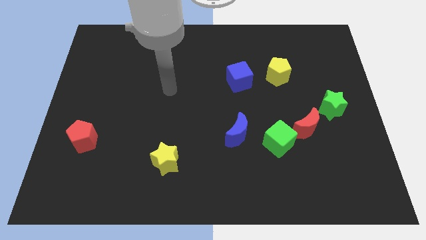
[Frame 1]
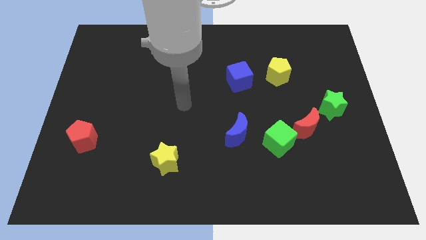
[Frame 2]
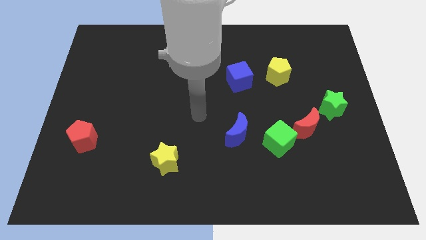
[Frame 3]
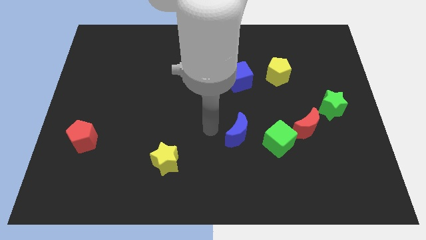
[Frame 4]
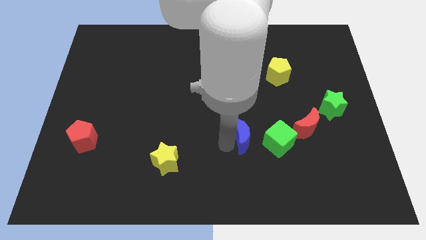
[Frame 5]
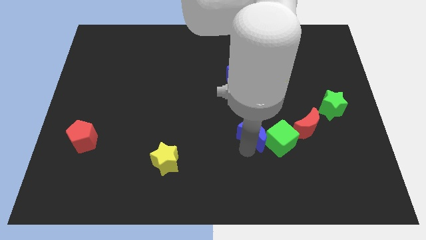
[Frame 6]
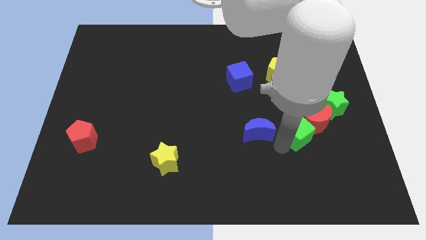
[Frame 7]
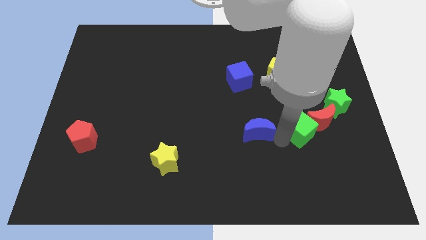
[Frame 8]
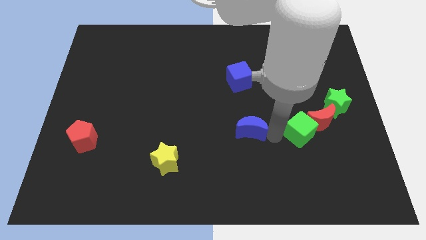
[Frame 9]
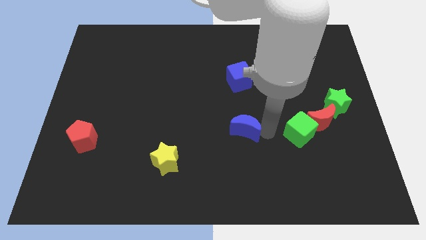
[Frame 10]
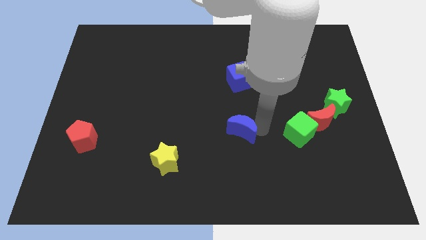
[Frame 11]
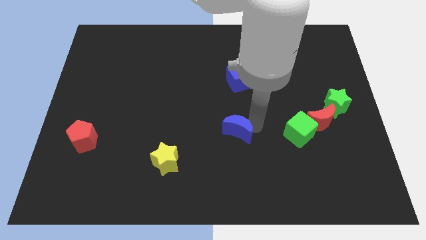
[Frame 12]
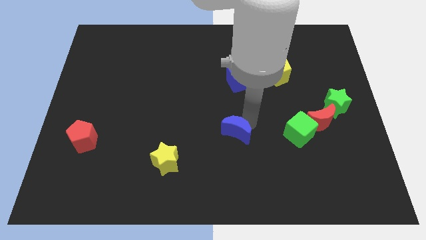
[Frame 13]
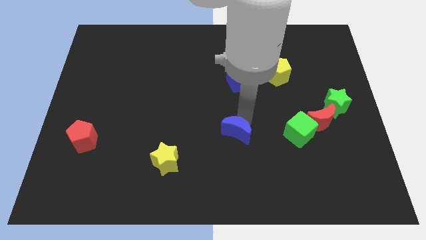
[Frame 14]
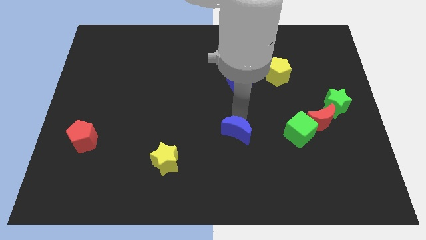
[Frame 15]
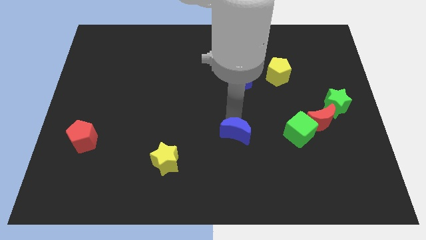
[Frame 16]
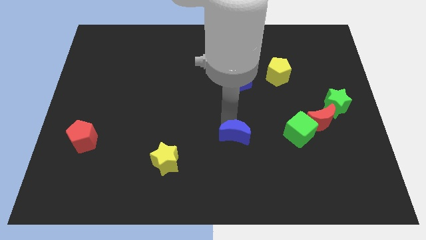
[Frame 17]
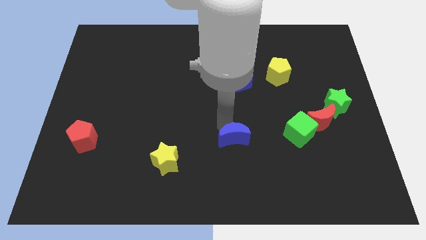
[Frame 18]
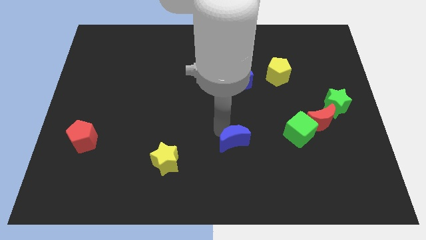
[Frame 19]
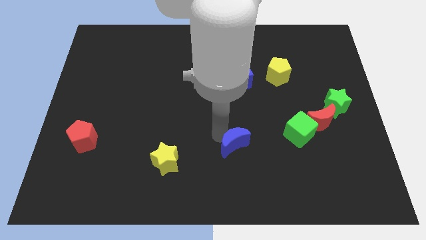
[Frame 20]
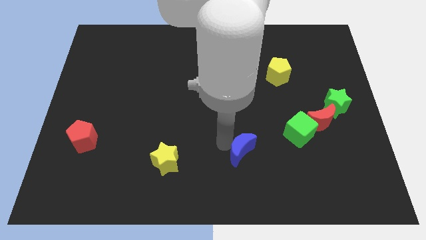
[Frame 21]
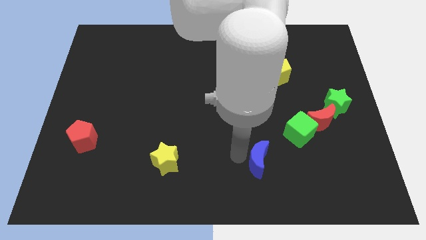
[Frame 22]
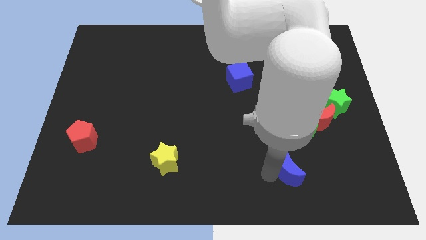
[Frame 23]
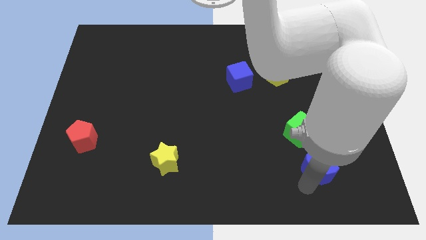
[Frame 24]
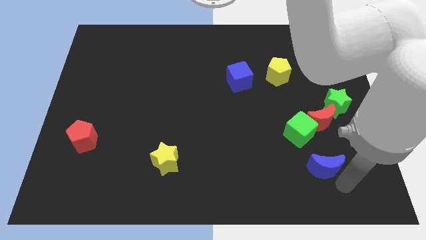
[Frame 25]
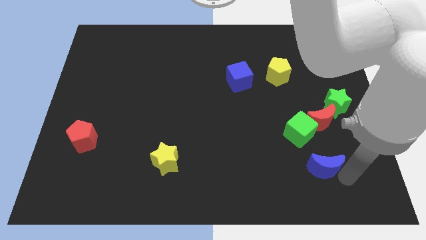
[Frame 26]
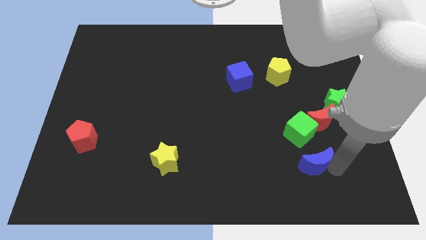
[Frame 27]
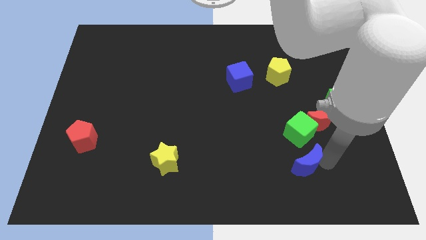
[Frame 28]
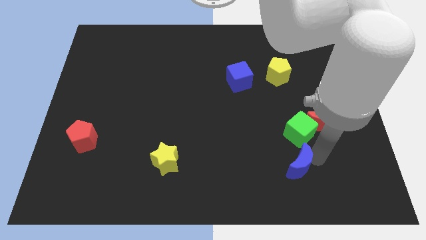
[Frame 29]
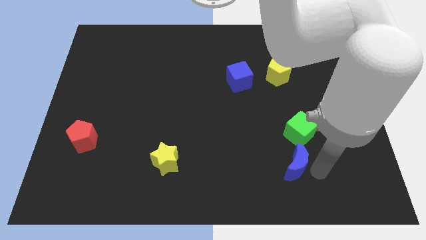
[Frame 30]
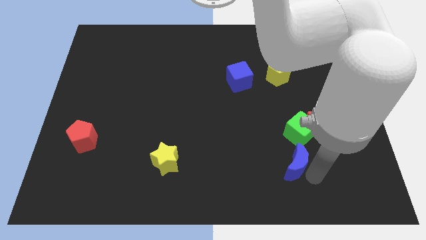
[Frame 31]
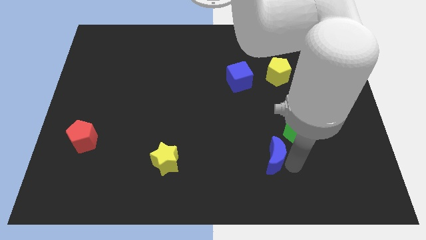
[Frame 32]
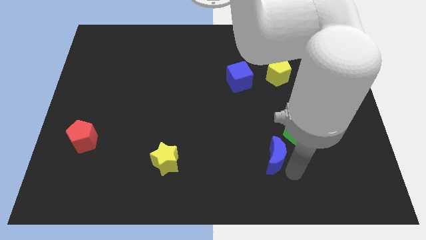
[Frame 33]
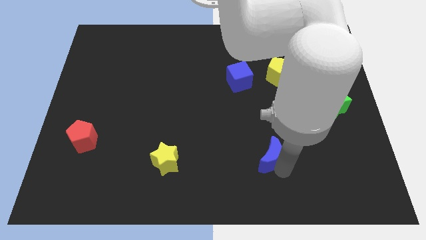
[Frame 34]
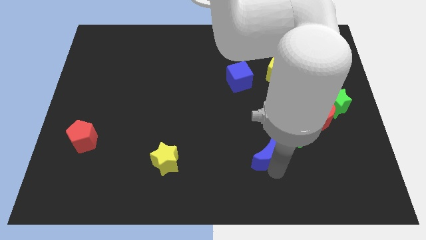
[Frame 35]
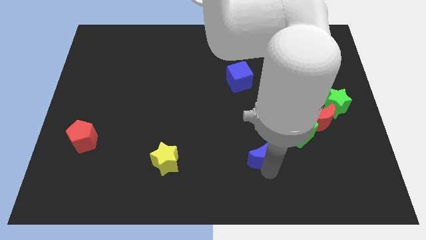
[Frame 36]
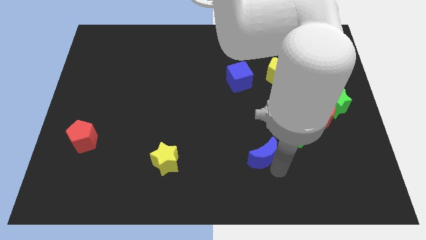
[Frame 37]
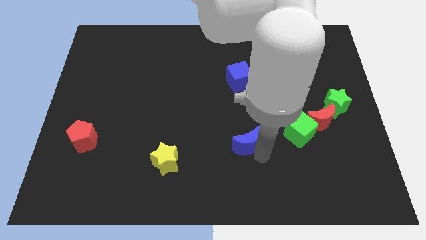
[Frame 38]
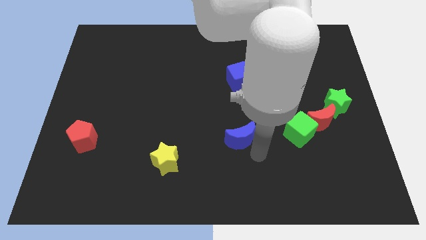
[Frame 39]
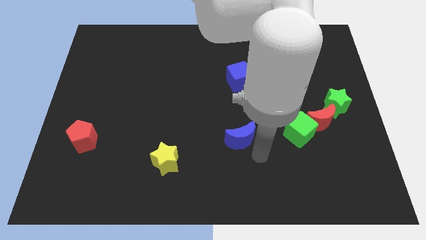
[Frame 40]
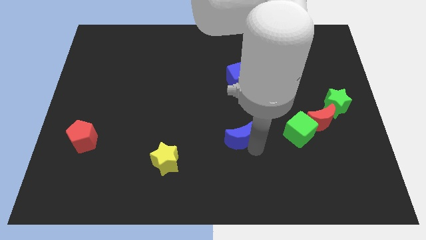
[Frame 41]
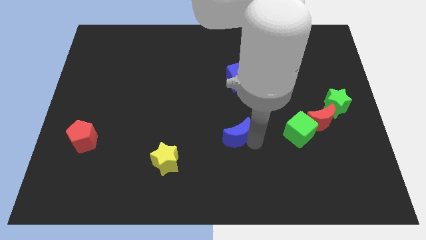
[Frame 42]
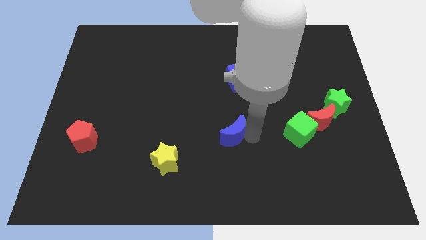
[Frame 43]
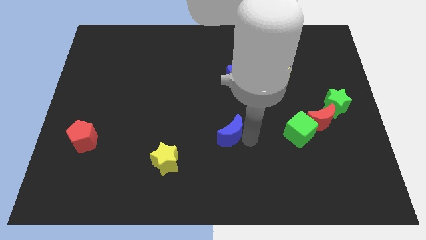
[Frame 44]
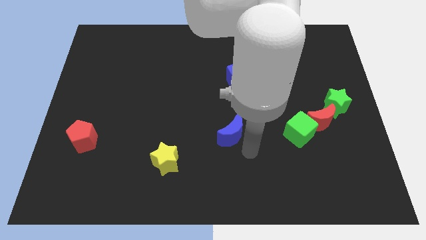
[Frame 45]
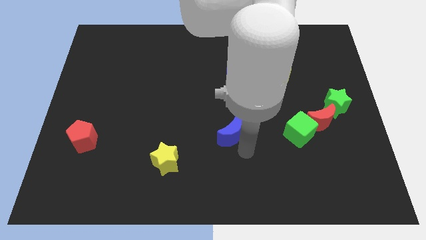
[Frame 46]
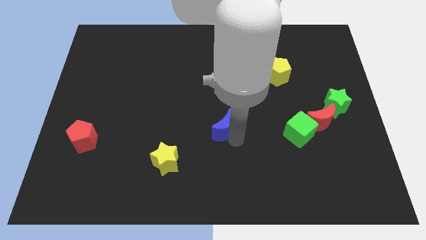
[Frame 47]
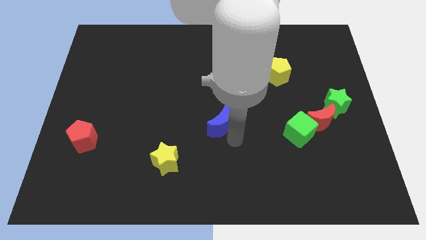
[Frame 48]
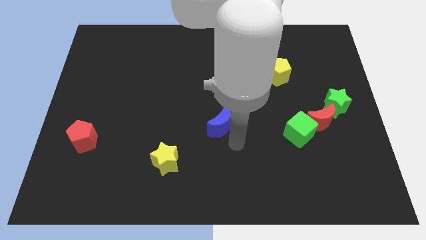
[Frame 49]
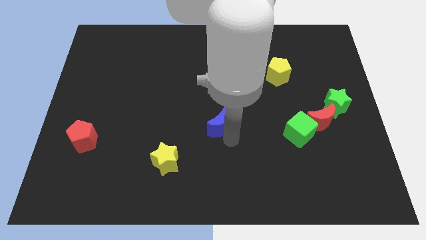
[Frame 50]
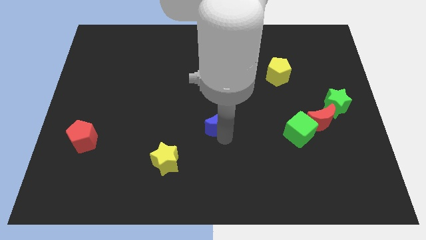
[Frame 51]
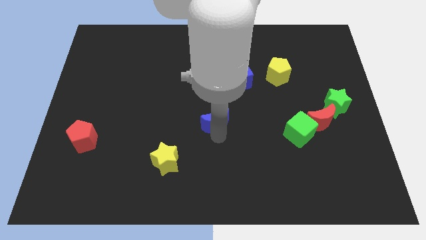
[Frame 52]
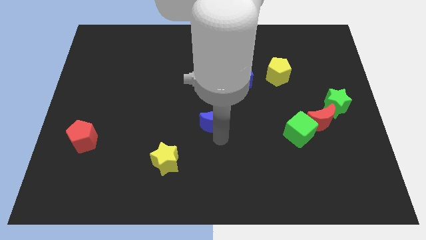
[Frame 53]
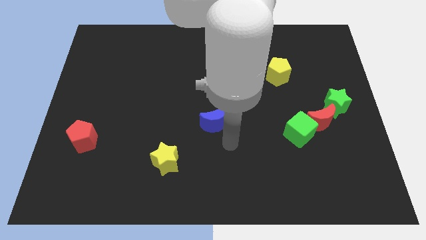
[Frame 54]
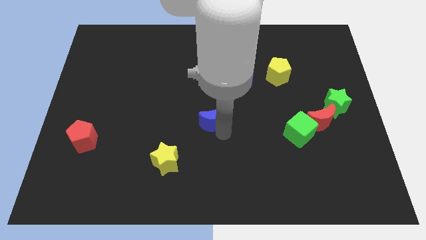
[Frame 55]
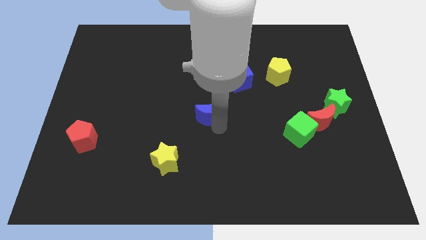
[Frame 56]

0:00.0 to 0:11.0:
slide the blue moon diagonally up and left somewhat

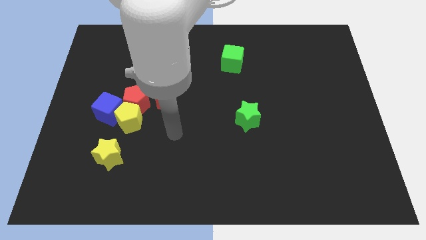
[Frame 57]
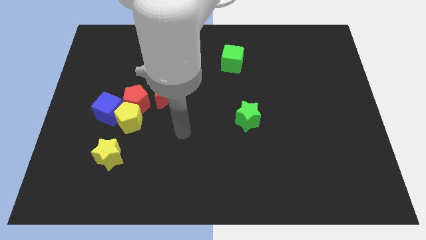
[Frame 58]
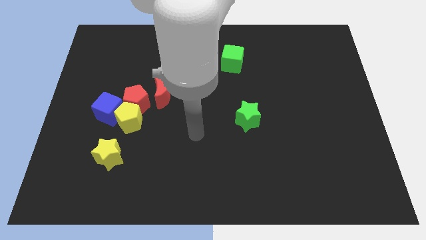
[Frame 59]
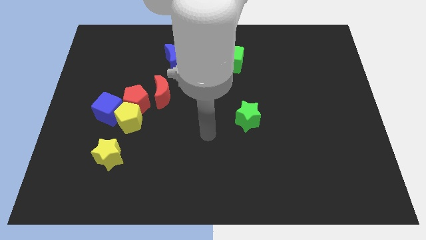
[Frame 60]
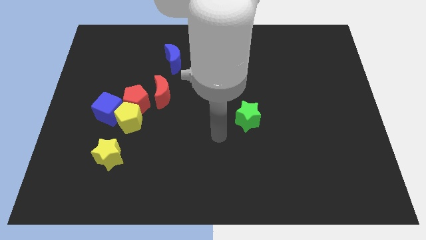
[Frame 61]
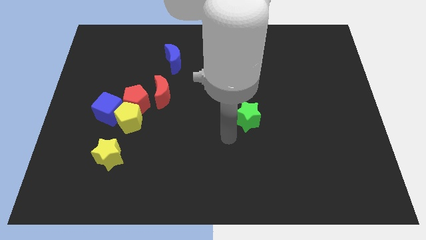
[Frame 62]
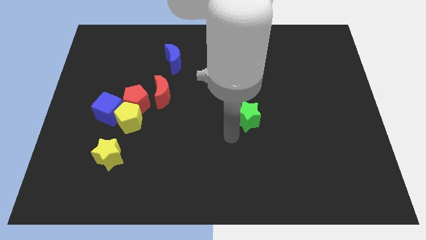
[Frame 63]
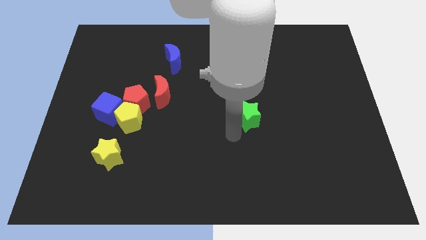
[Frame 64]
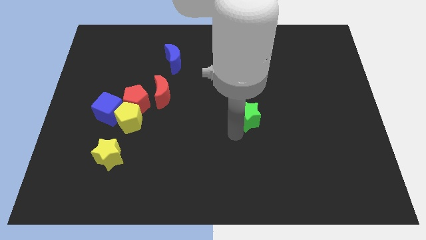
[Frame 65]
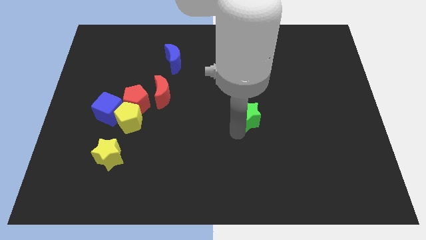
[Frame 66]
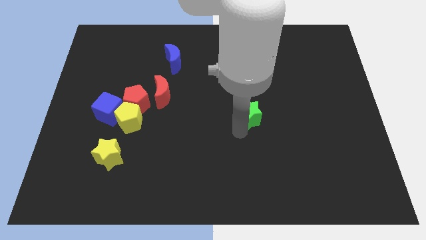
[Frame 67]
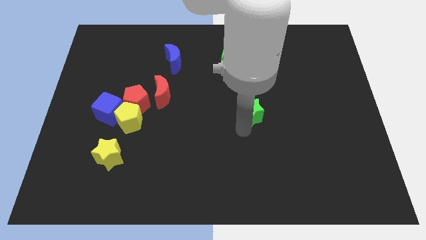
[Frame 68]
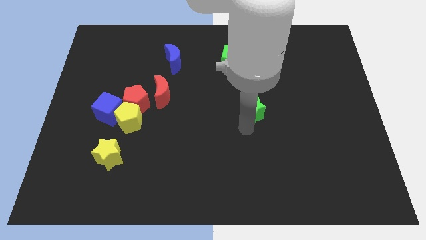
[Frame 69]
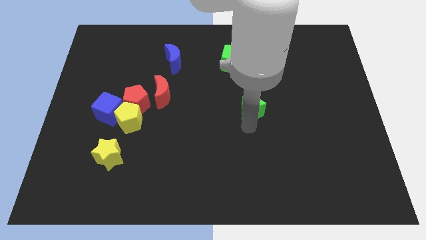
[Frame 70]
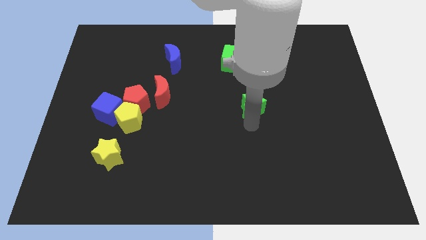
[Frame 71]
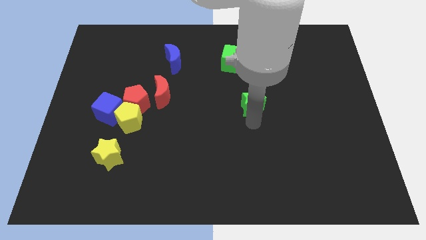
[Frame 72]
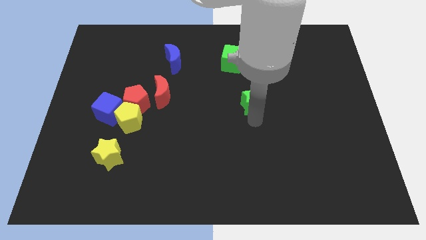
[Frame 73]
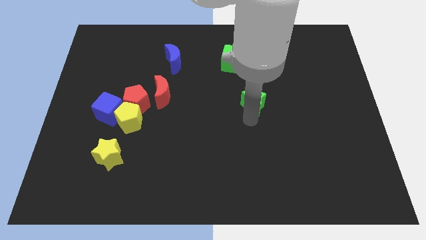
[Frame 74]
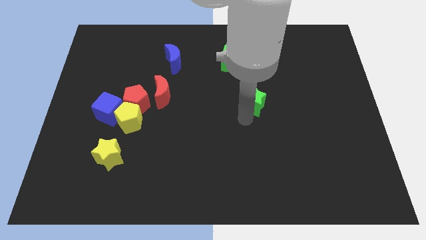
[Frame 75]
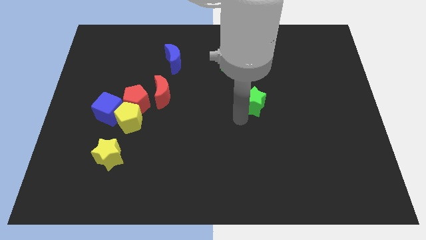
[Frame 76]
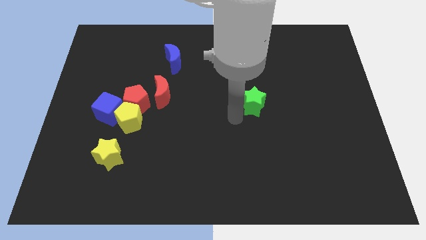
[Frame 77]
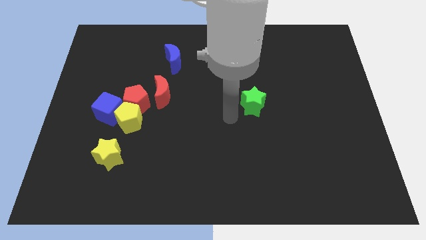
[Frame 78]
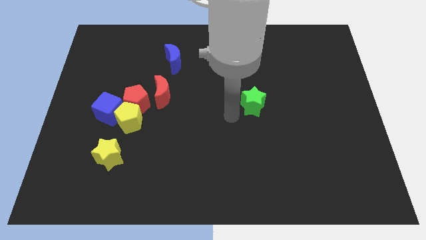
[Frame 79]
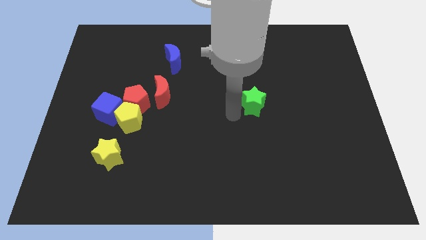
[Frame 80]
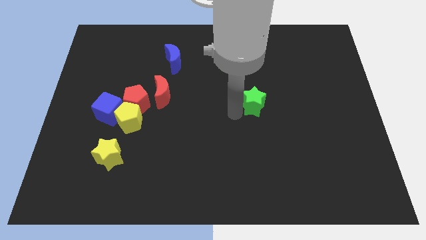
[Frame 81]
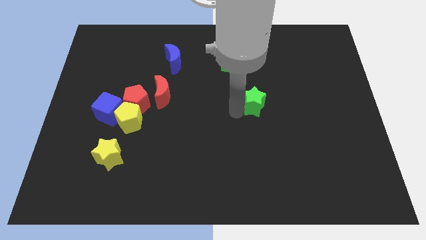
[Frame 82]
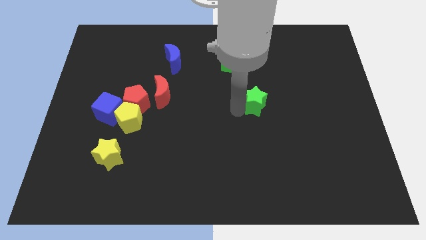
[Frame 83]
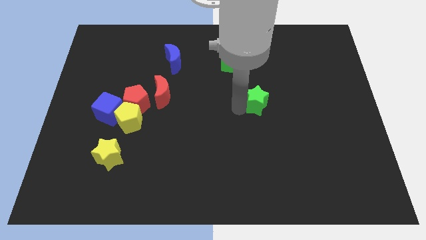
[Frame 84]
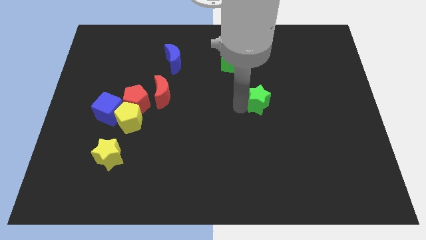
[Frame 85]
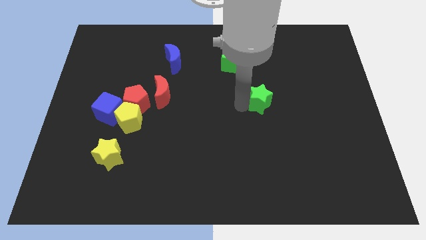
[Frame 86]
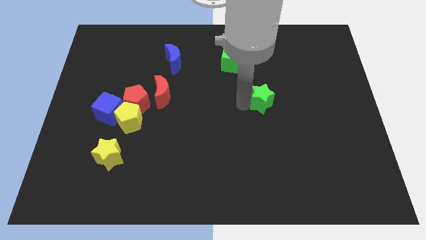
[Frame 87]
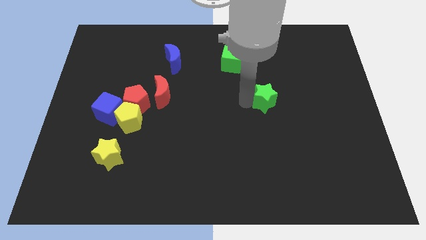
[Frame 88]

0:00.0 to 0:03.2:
slightly move the green star upwards and right
